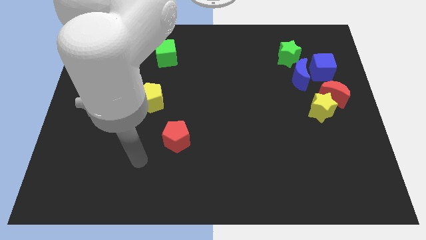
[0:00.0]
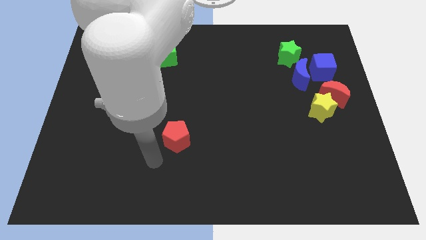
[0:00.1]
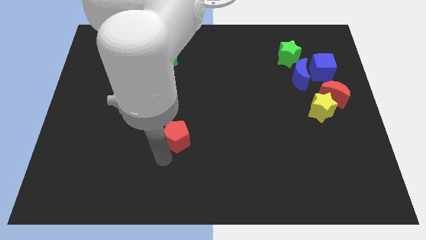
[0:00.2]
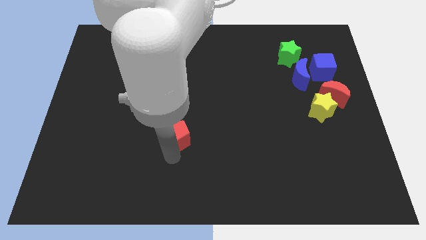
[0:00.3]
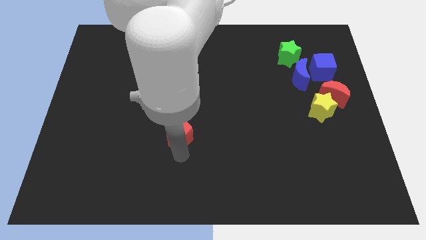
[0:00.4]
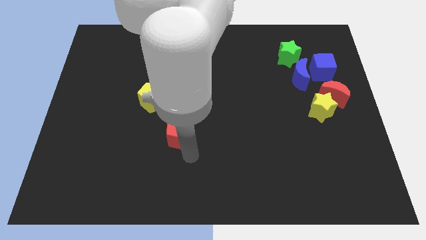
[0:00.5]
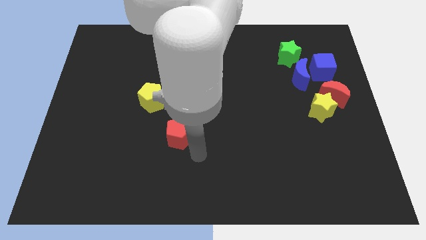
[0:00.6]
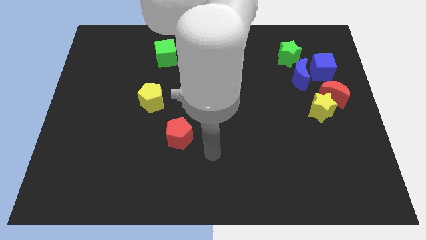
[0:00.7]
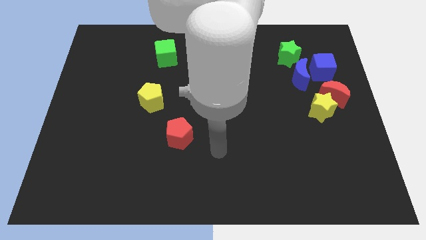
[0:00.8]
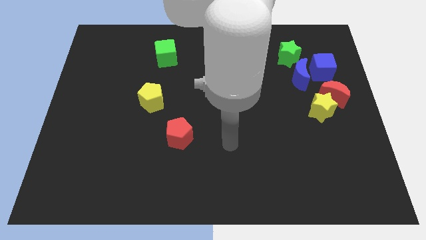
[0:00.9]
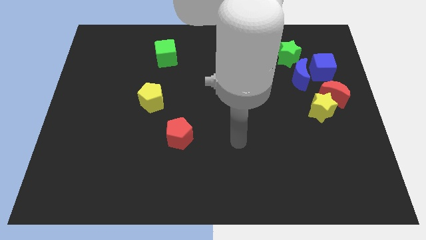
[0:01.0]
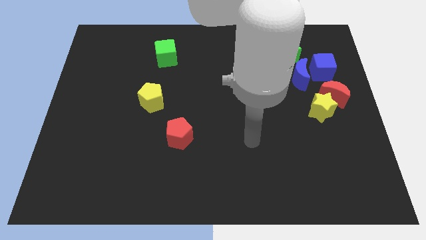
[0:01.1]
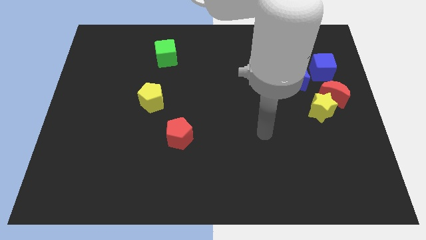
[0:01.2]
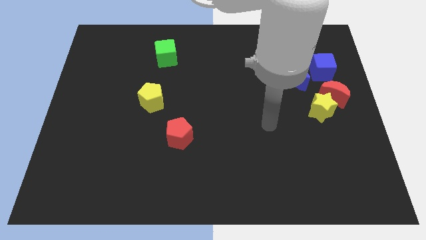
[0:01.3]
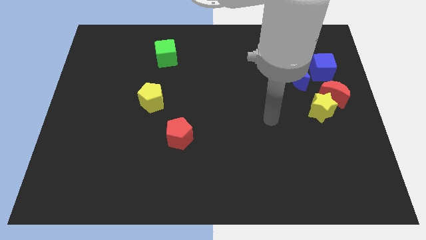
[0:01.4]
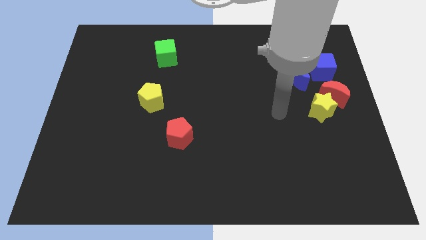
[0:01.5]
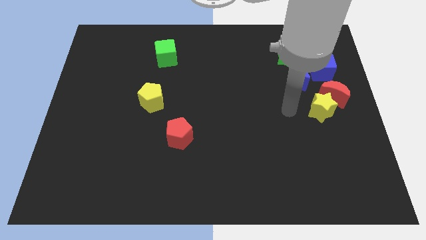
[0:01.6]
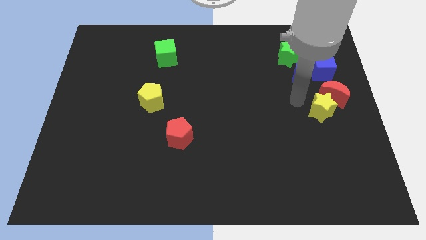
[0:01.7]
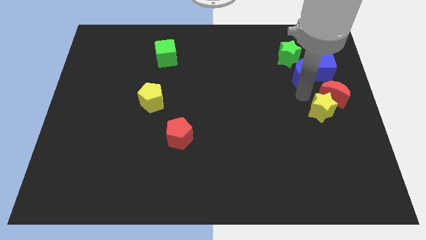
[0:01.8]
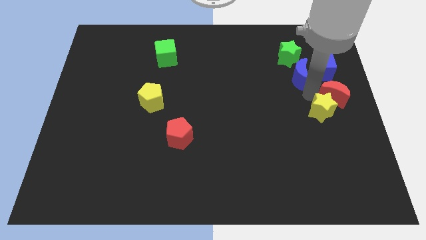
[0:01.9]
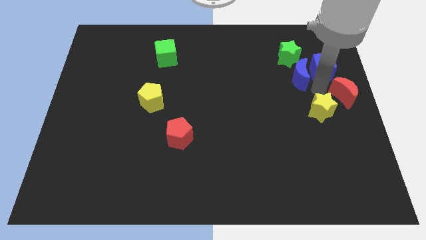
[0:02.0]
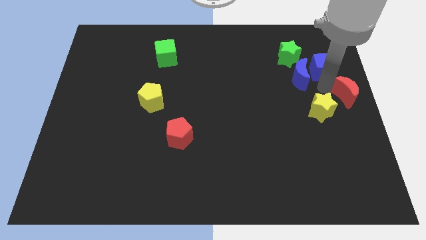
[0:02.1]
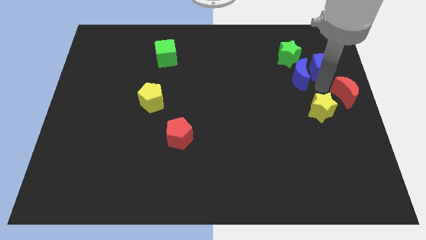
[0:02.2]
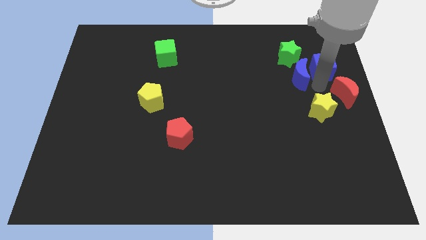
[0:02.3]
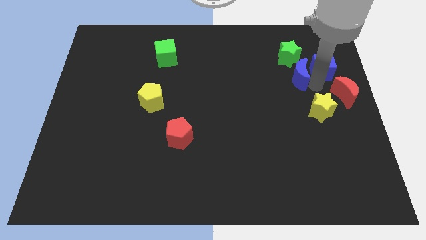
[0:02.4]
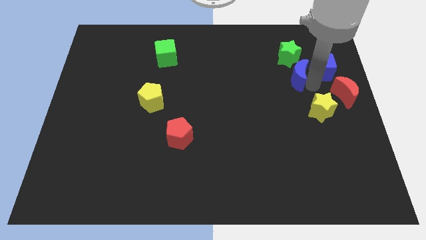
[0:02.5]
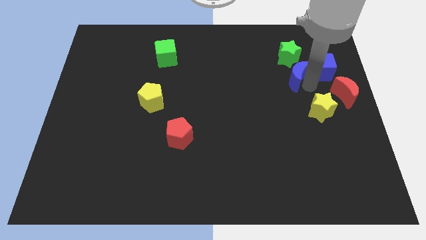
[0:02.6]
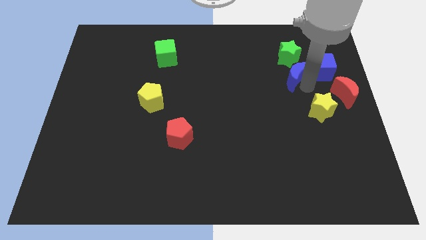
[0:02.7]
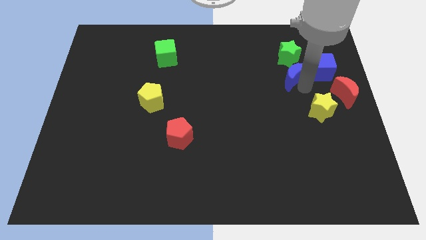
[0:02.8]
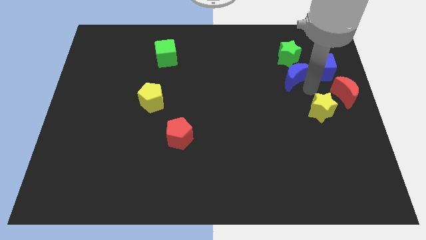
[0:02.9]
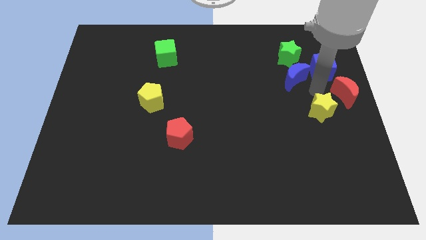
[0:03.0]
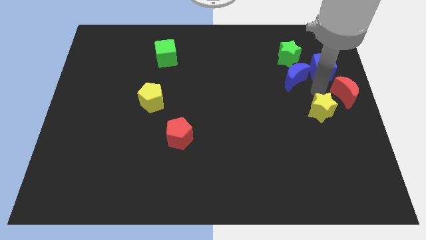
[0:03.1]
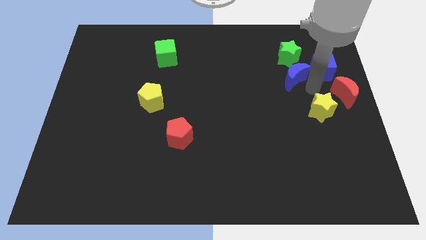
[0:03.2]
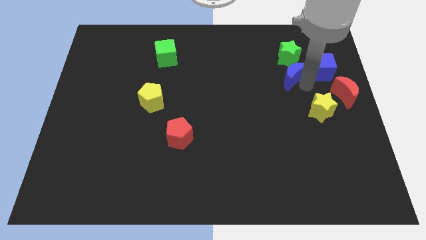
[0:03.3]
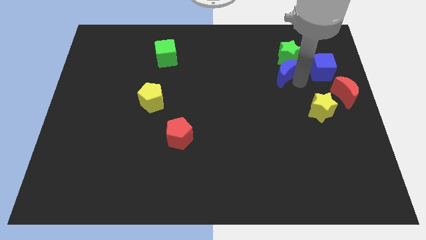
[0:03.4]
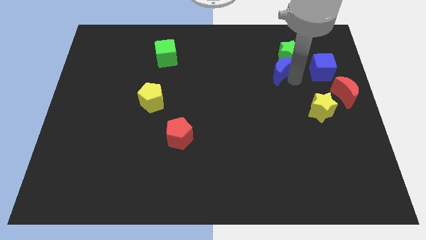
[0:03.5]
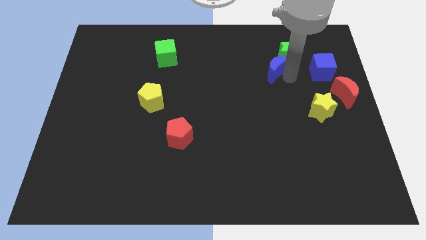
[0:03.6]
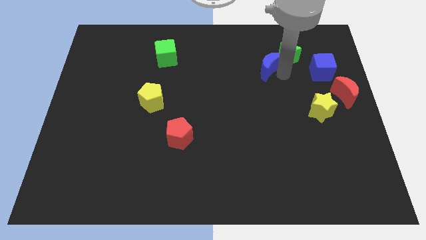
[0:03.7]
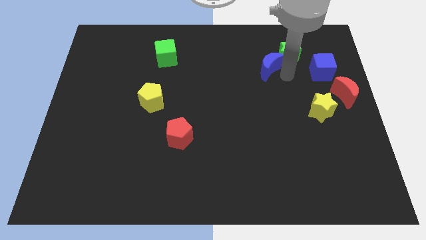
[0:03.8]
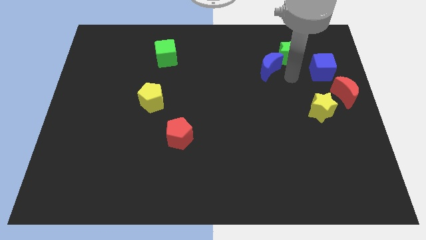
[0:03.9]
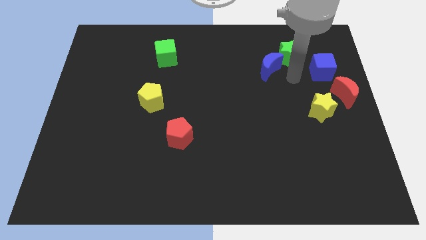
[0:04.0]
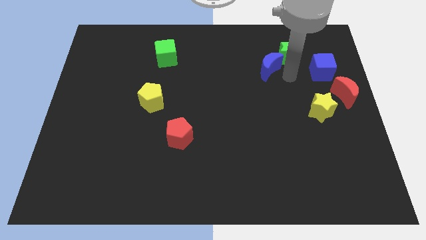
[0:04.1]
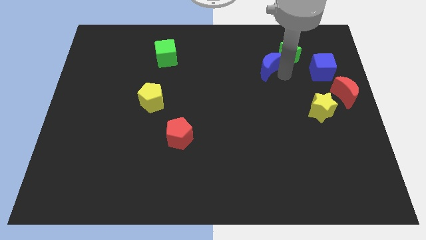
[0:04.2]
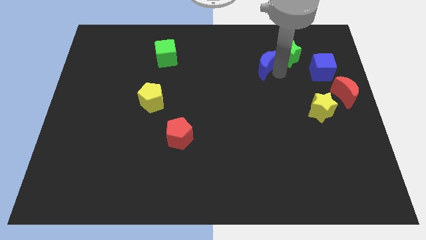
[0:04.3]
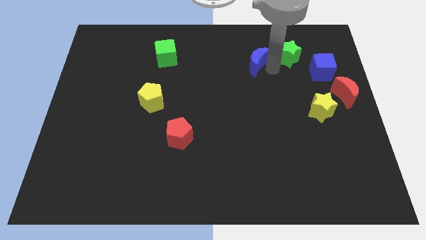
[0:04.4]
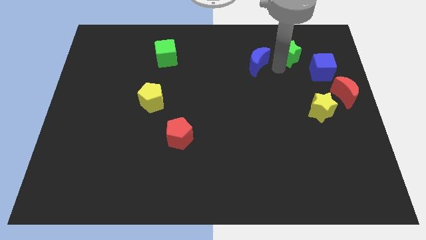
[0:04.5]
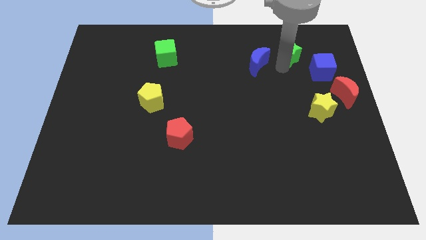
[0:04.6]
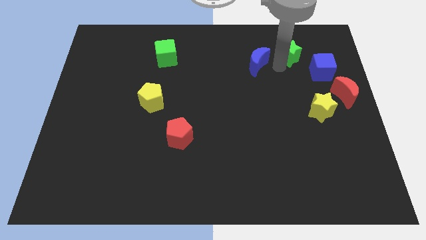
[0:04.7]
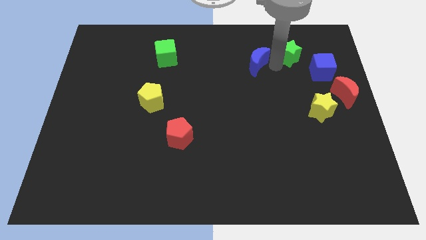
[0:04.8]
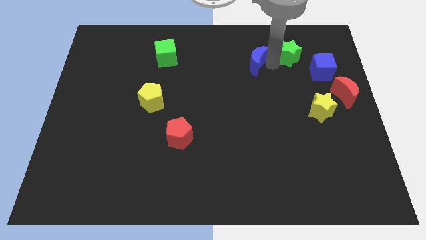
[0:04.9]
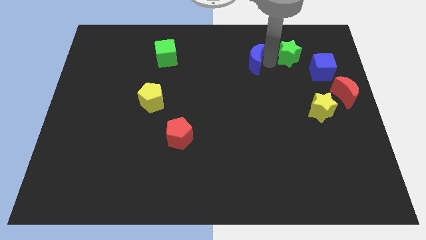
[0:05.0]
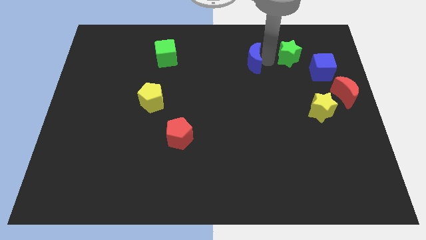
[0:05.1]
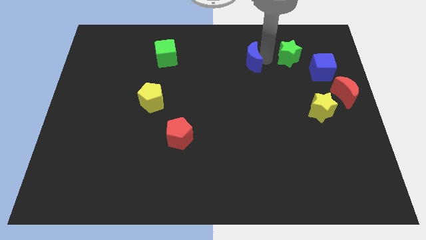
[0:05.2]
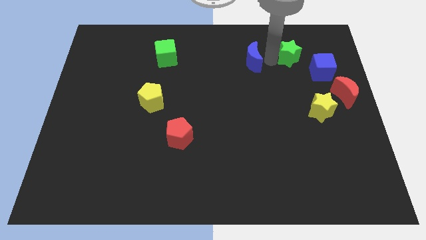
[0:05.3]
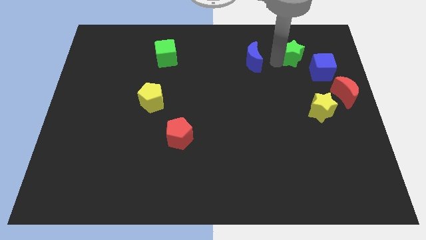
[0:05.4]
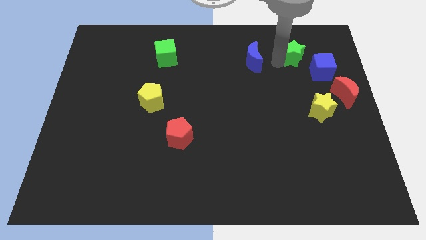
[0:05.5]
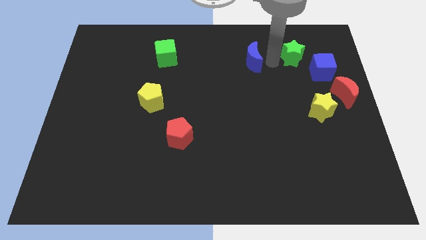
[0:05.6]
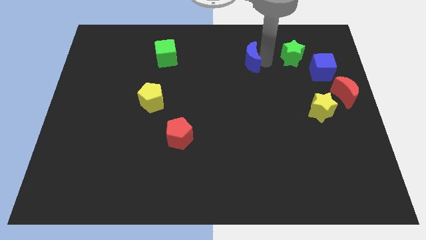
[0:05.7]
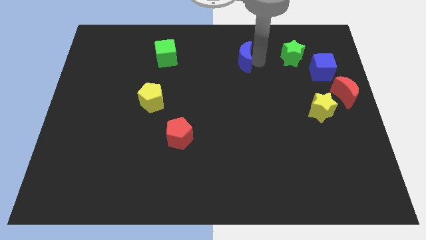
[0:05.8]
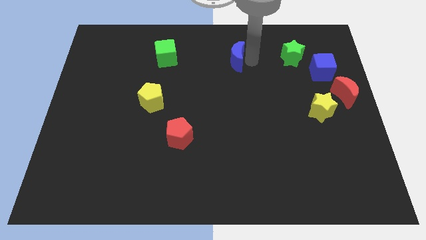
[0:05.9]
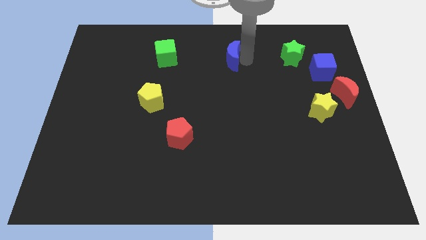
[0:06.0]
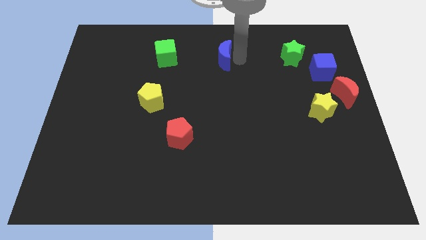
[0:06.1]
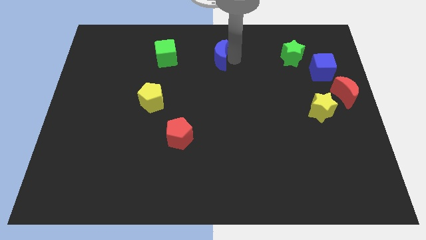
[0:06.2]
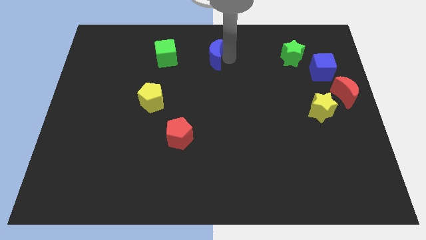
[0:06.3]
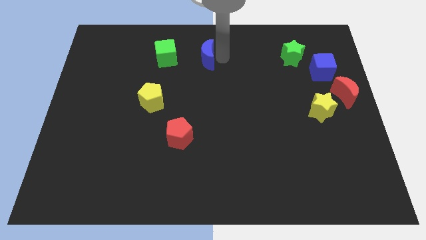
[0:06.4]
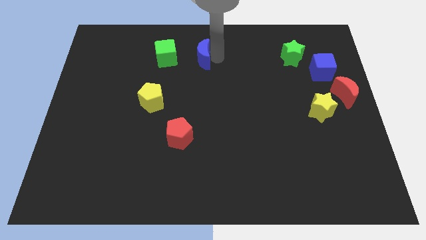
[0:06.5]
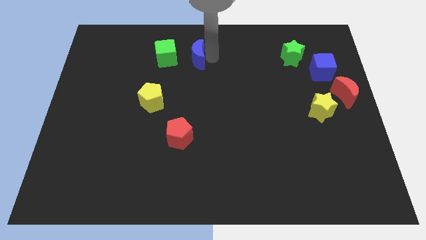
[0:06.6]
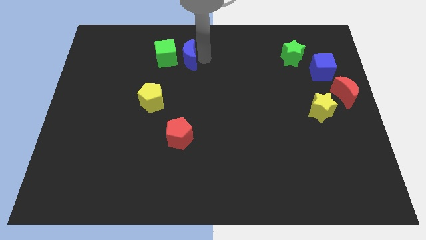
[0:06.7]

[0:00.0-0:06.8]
push the blue moon next to the green cube
